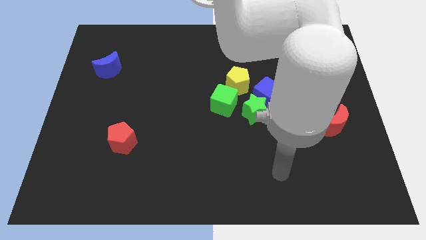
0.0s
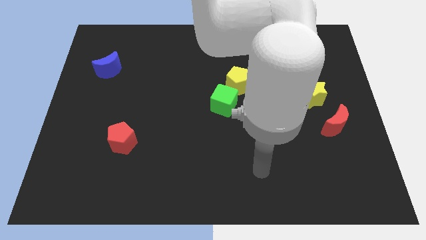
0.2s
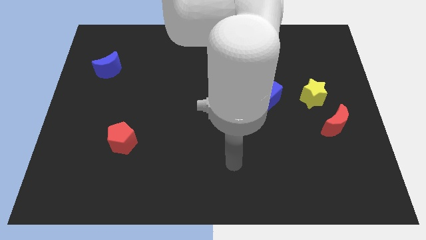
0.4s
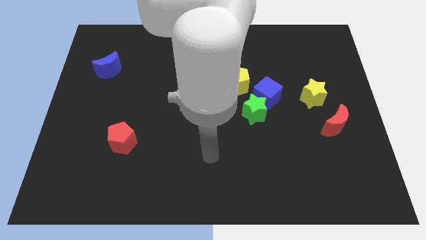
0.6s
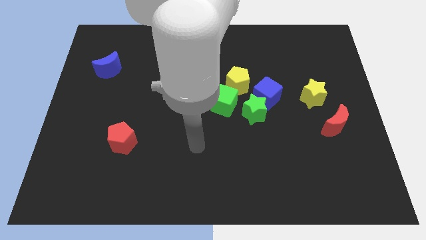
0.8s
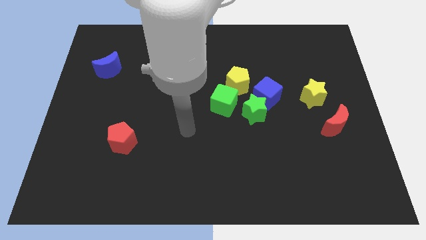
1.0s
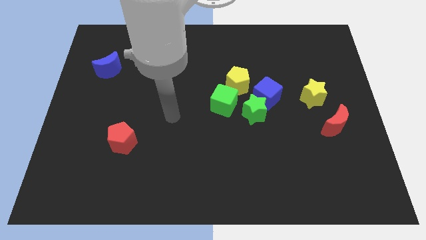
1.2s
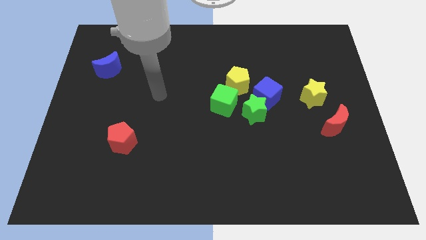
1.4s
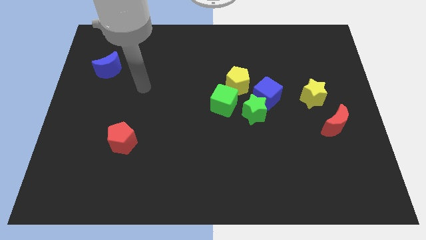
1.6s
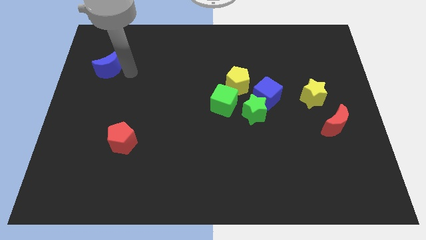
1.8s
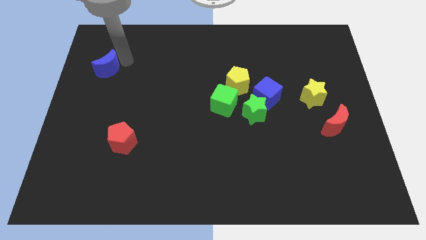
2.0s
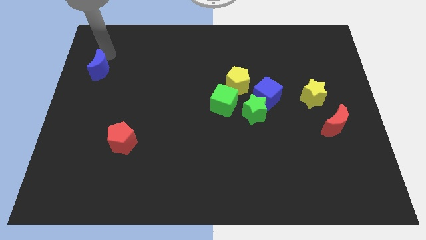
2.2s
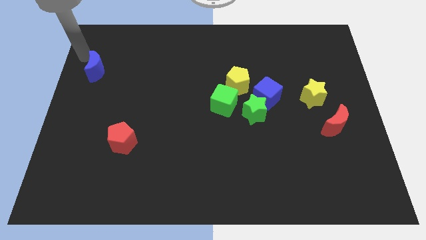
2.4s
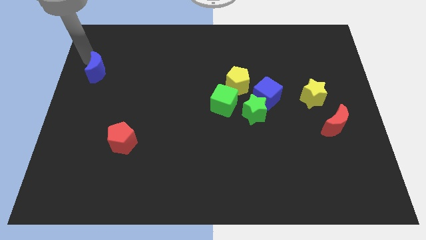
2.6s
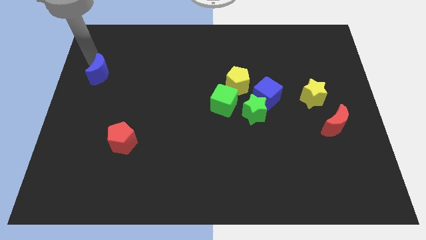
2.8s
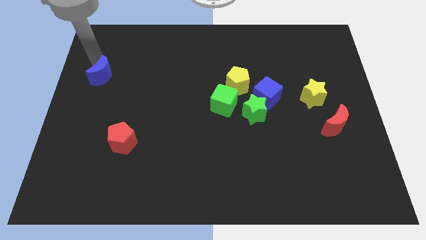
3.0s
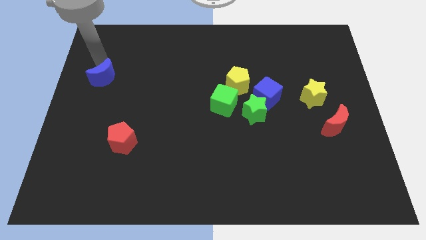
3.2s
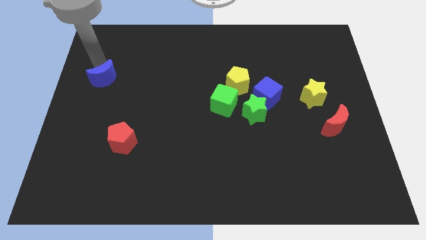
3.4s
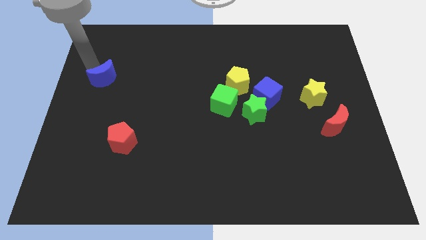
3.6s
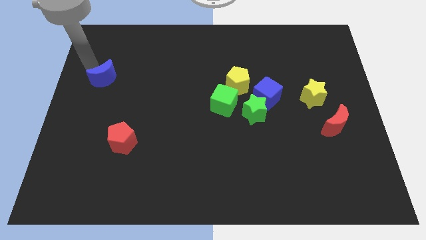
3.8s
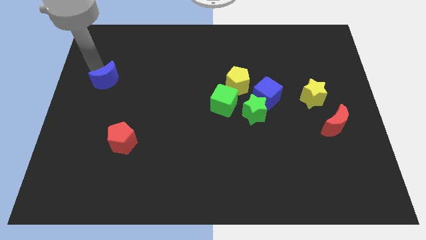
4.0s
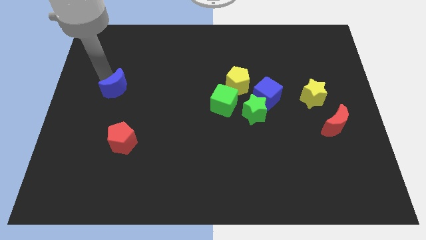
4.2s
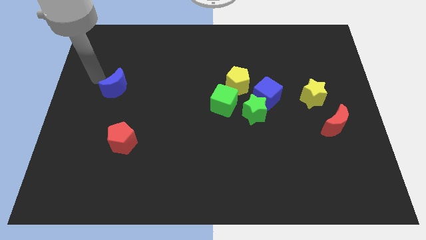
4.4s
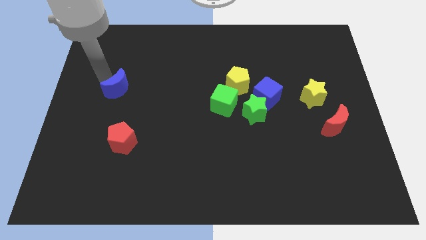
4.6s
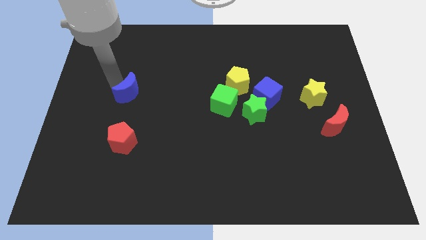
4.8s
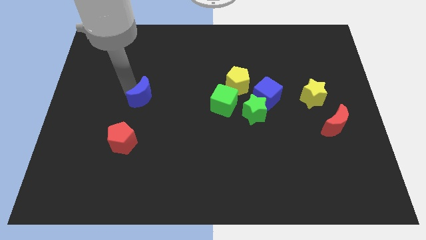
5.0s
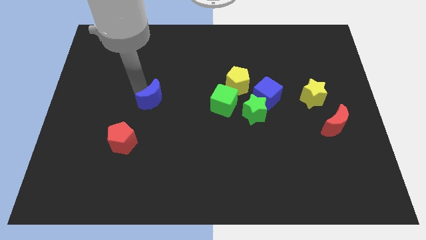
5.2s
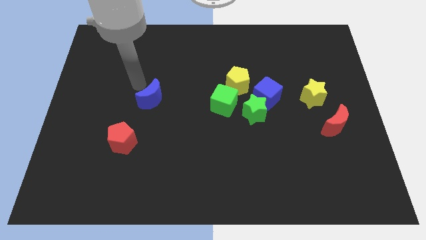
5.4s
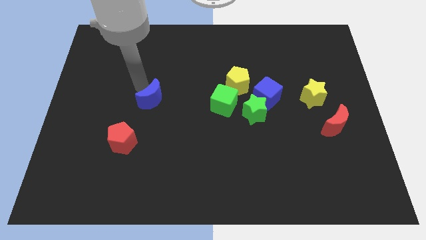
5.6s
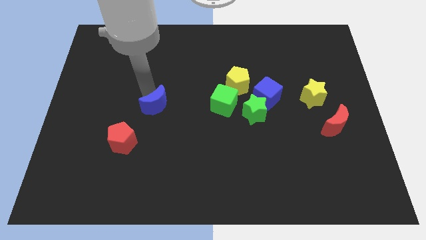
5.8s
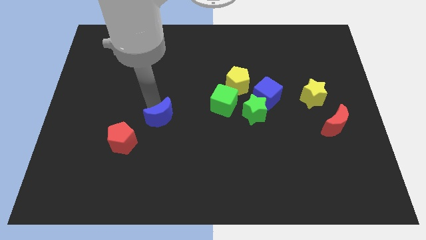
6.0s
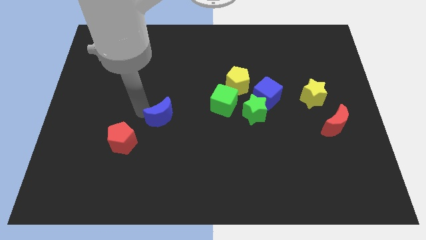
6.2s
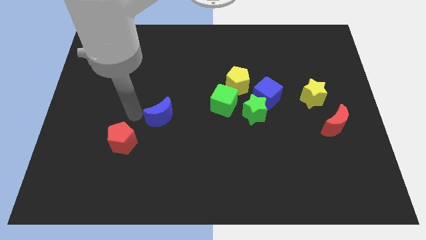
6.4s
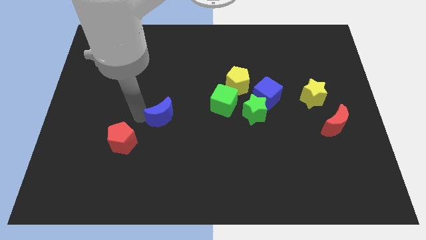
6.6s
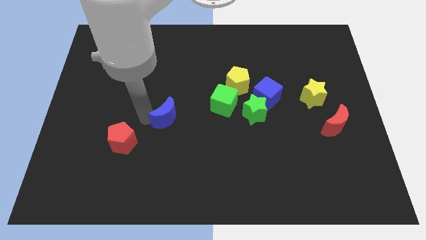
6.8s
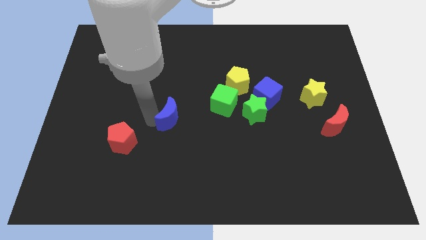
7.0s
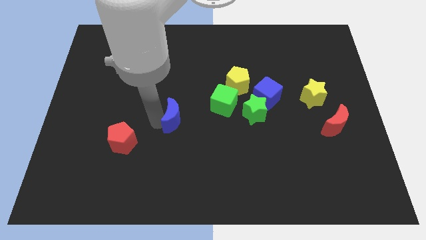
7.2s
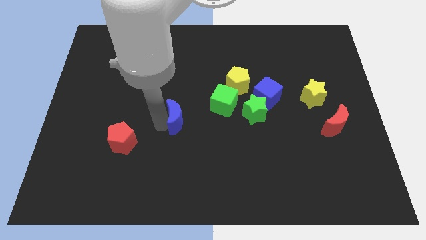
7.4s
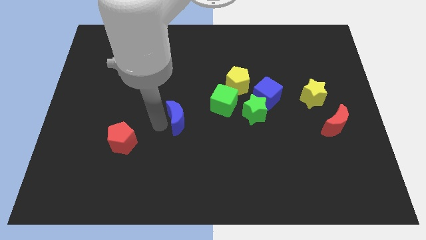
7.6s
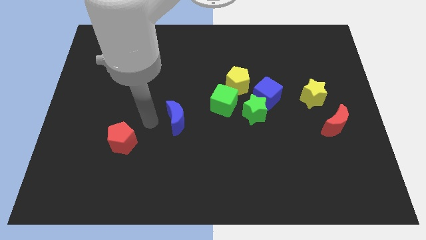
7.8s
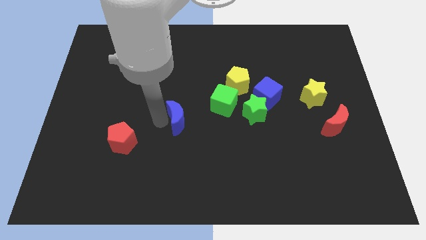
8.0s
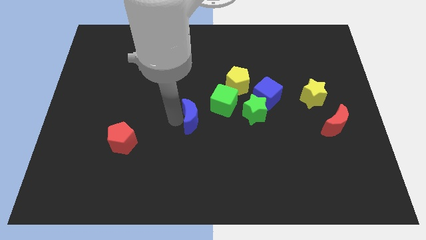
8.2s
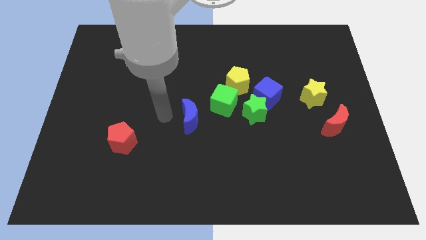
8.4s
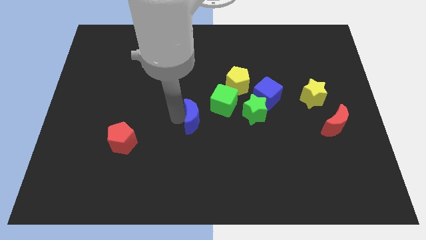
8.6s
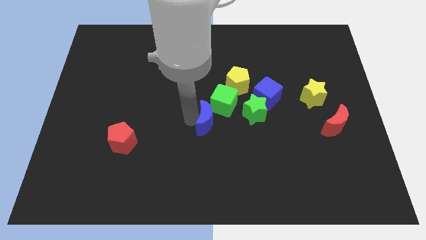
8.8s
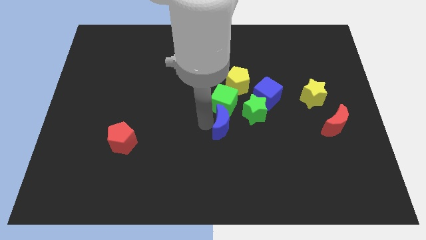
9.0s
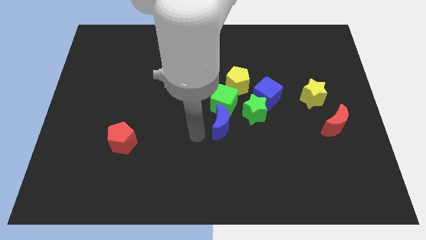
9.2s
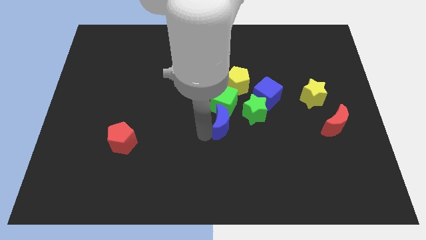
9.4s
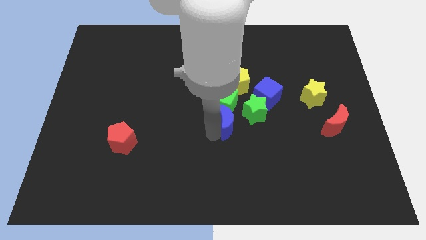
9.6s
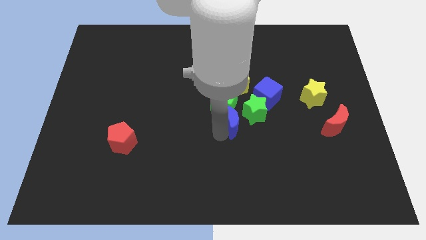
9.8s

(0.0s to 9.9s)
slide the blue moon close to the green star

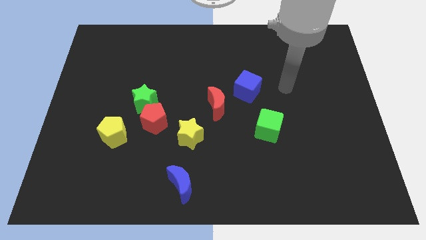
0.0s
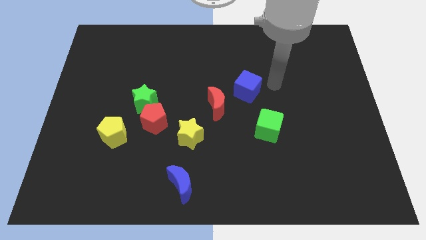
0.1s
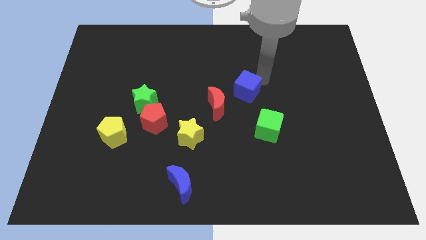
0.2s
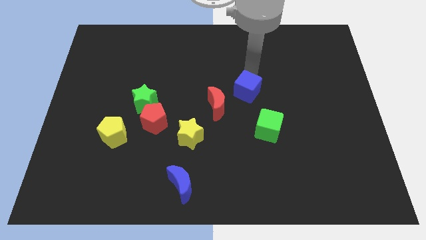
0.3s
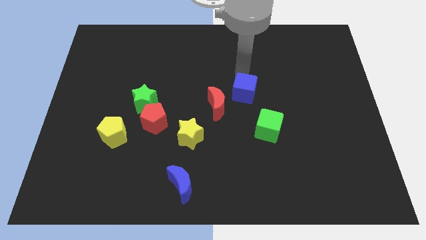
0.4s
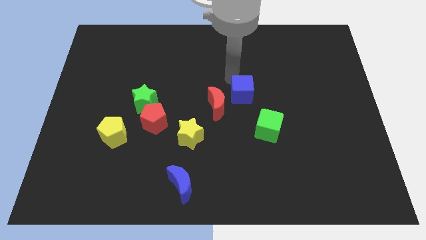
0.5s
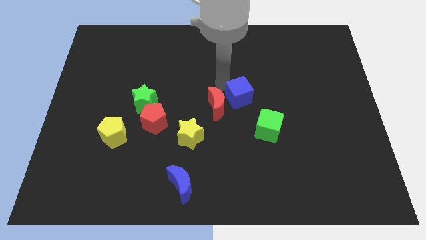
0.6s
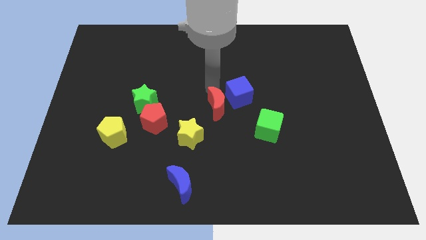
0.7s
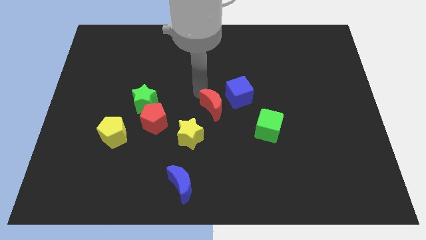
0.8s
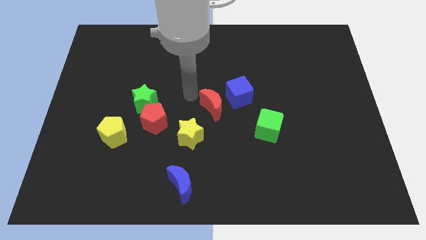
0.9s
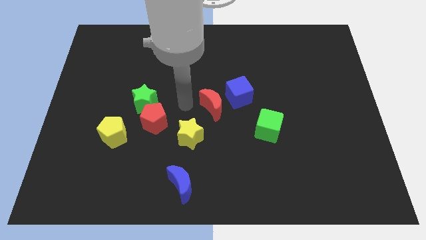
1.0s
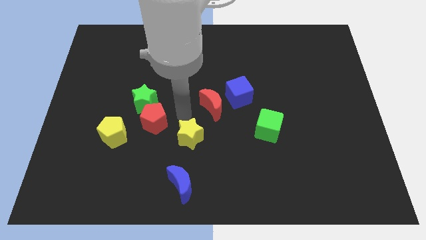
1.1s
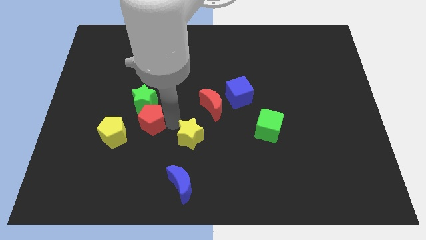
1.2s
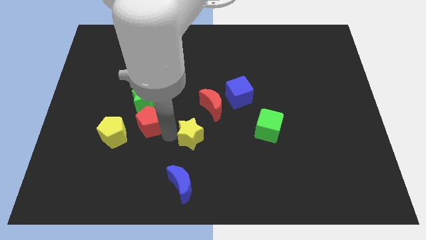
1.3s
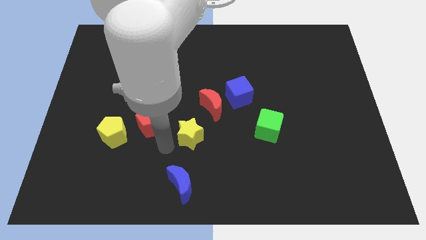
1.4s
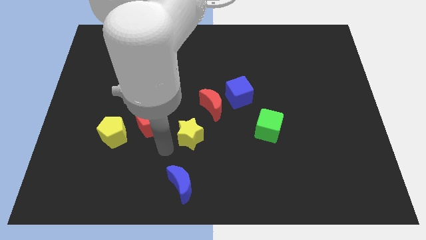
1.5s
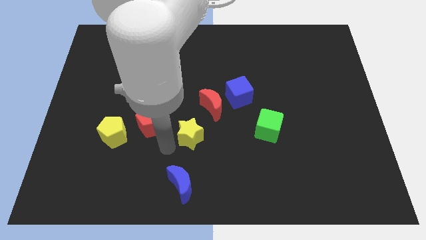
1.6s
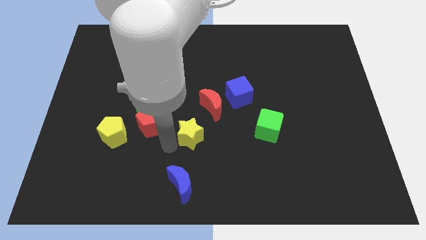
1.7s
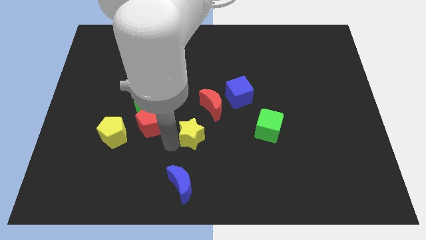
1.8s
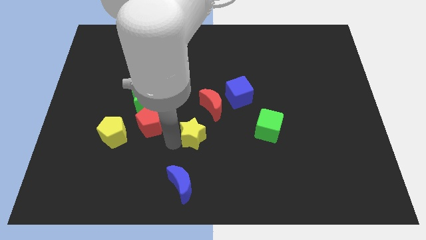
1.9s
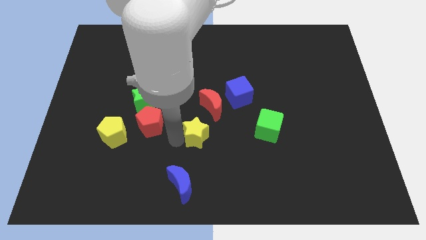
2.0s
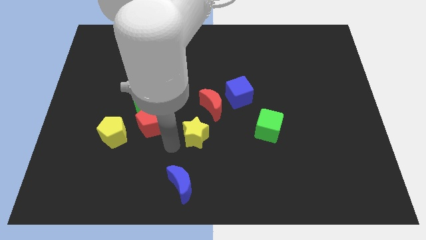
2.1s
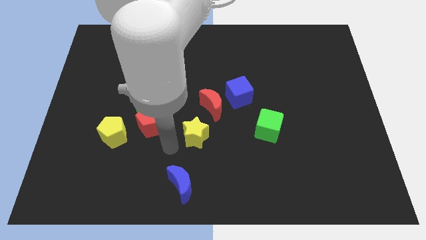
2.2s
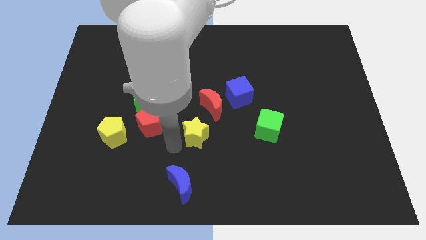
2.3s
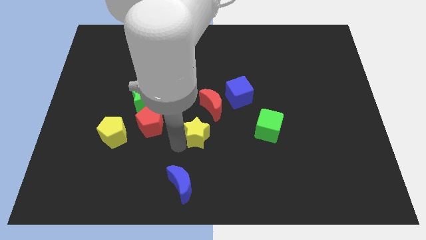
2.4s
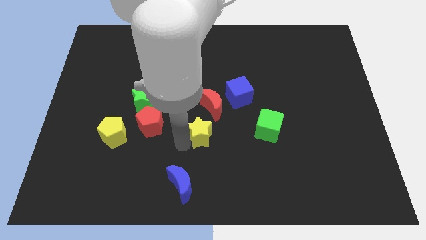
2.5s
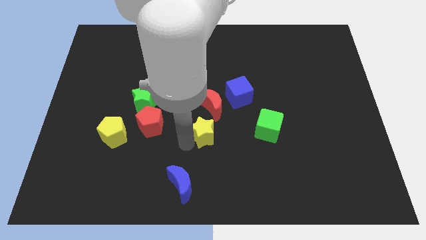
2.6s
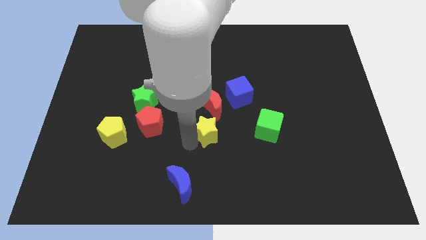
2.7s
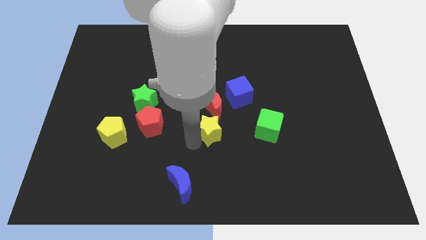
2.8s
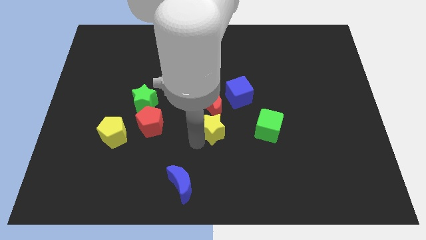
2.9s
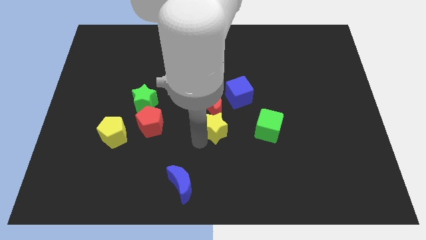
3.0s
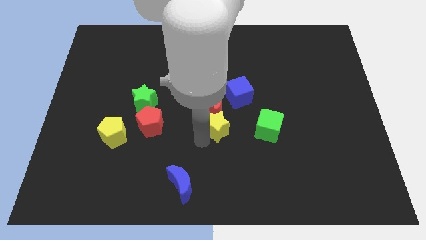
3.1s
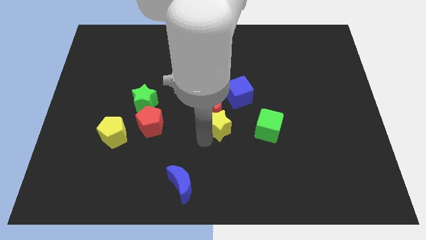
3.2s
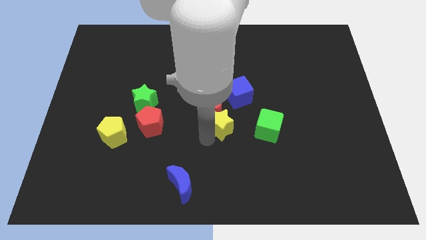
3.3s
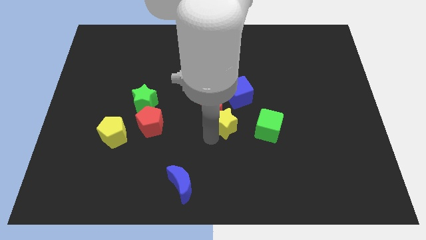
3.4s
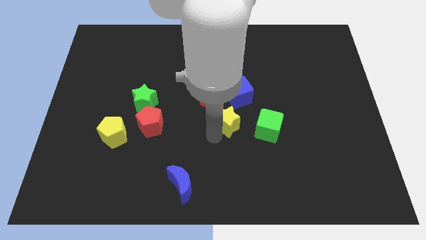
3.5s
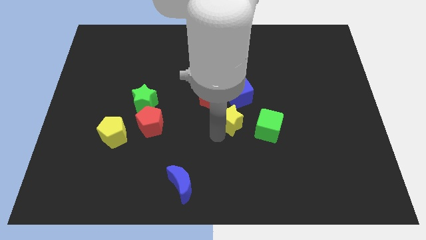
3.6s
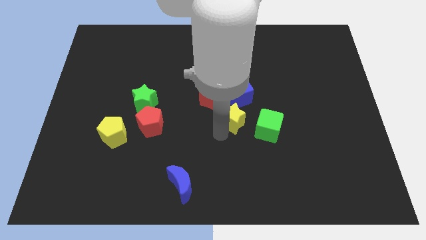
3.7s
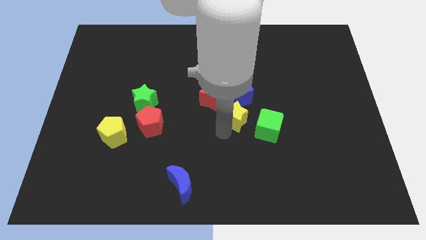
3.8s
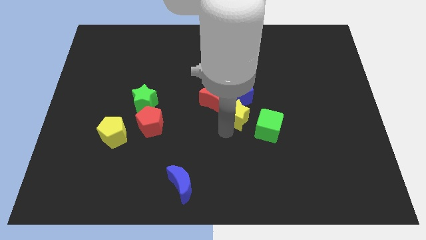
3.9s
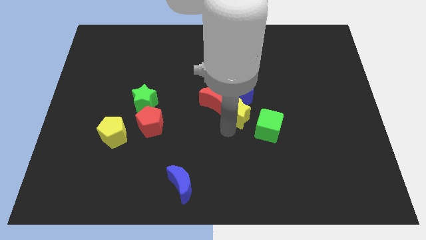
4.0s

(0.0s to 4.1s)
slide the yellow star to the blue cube
